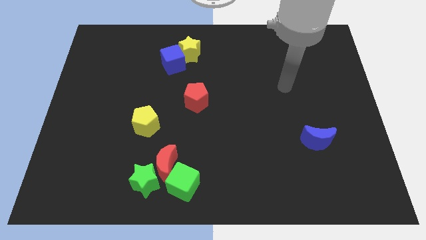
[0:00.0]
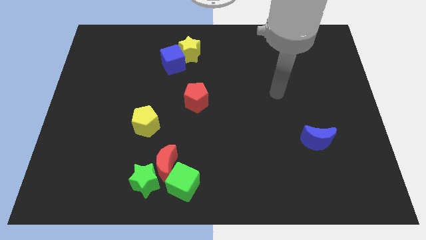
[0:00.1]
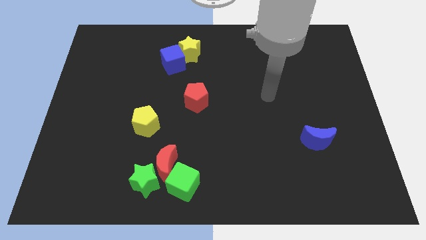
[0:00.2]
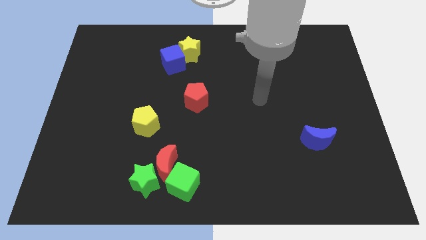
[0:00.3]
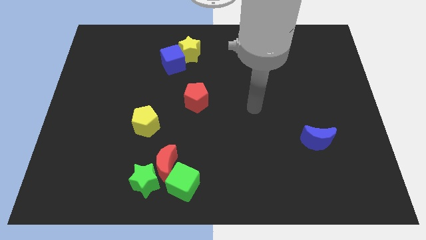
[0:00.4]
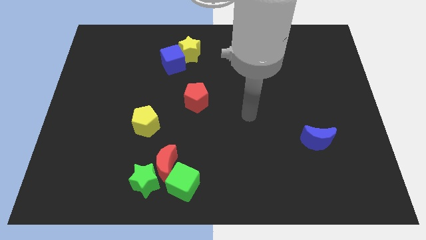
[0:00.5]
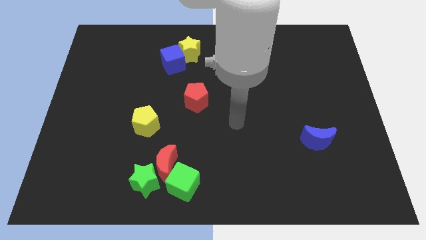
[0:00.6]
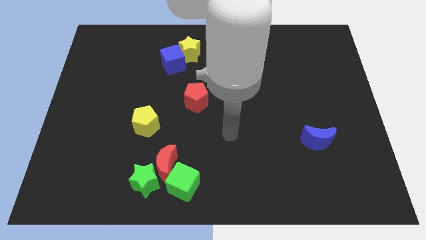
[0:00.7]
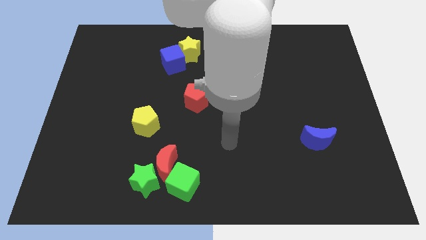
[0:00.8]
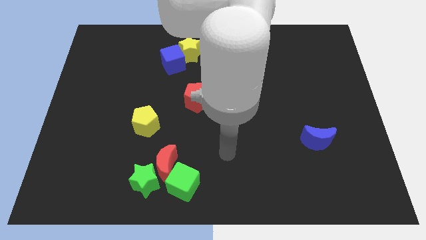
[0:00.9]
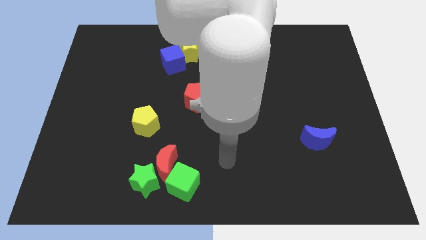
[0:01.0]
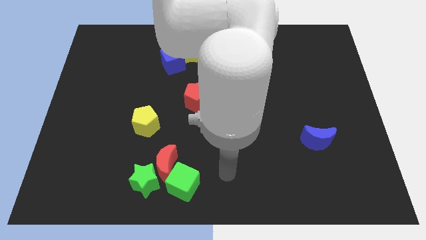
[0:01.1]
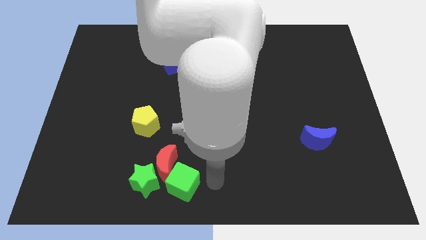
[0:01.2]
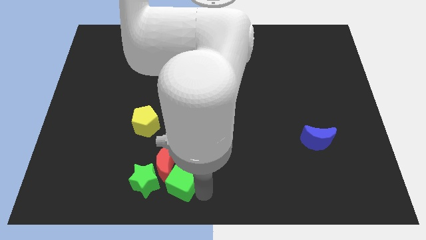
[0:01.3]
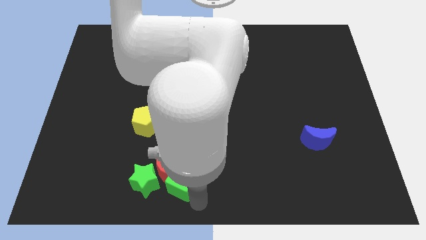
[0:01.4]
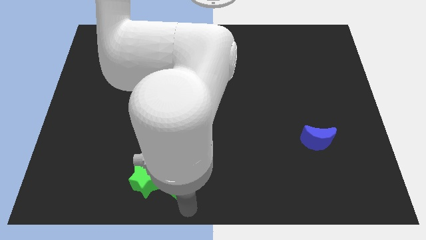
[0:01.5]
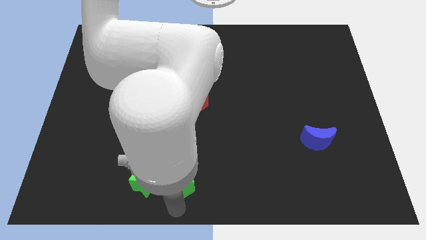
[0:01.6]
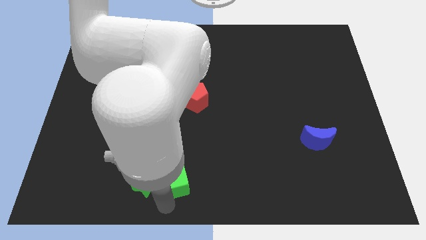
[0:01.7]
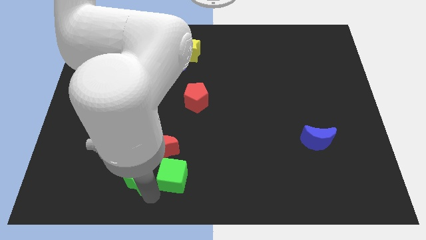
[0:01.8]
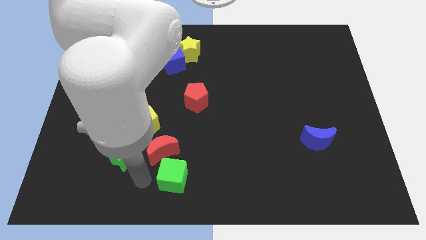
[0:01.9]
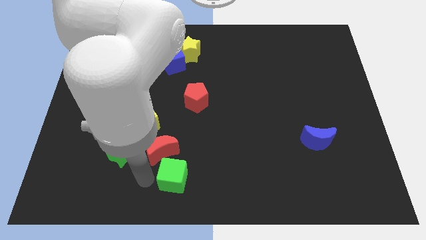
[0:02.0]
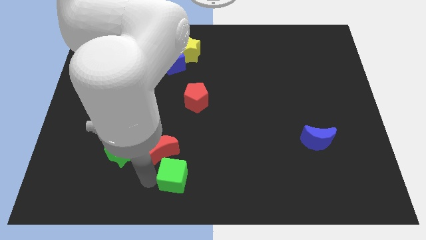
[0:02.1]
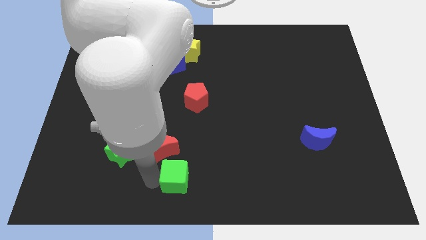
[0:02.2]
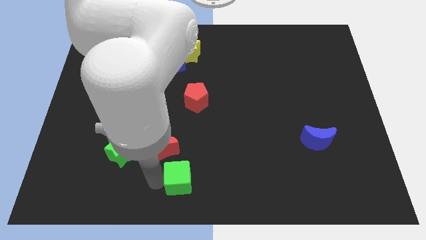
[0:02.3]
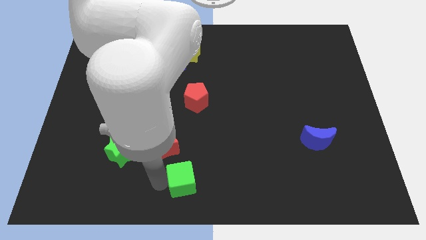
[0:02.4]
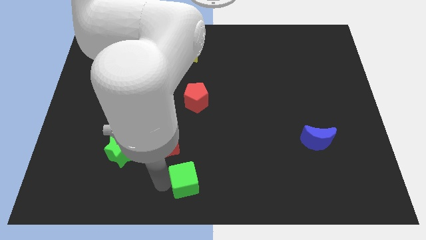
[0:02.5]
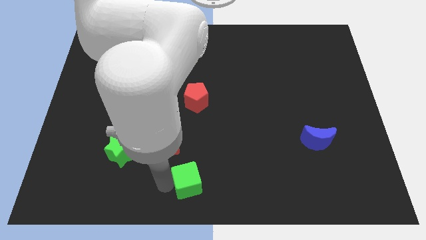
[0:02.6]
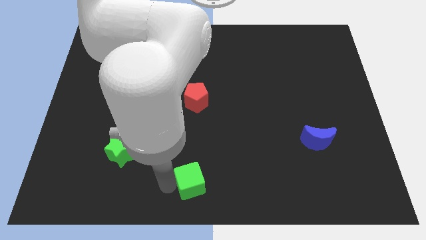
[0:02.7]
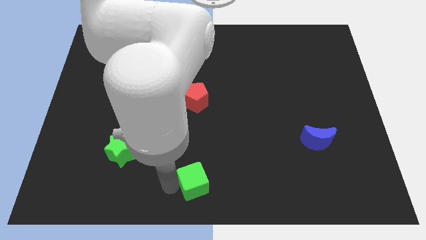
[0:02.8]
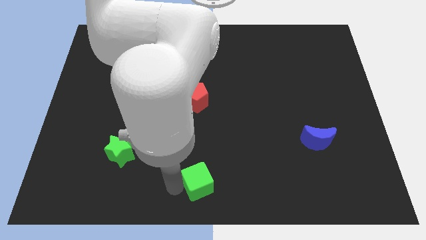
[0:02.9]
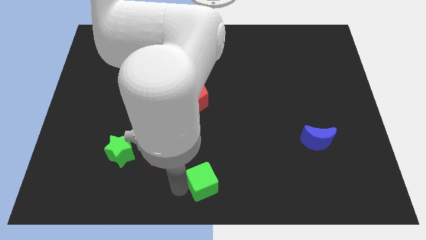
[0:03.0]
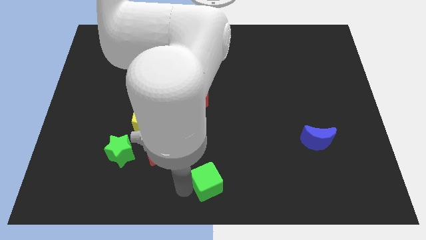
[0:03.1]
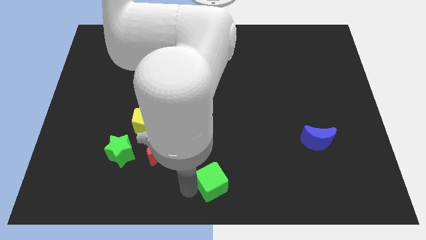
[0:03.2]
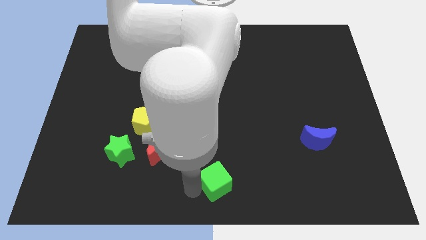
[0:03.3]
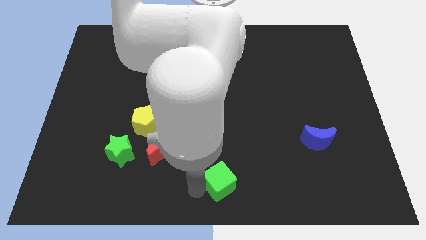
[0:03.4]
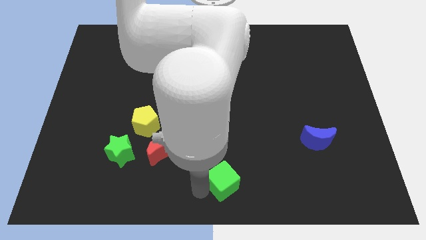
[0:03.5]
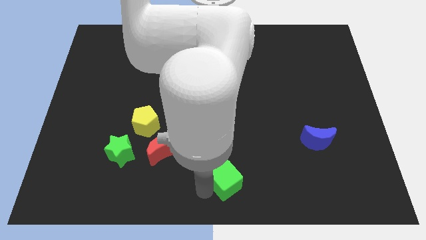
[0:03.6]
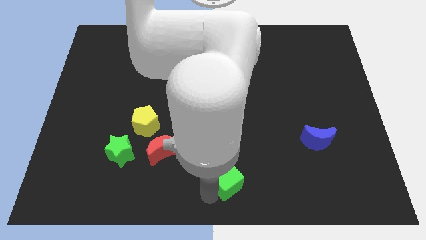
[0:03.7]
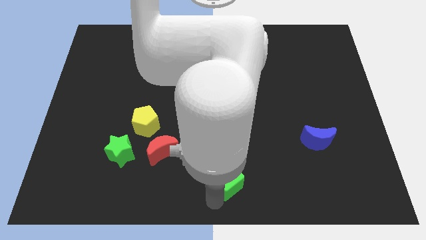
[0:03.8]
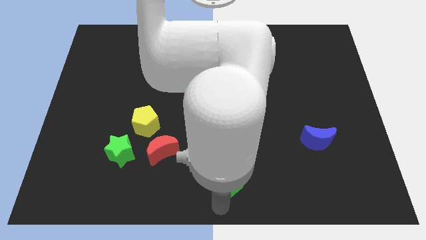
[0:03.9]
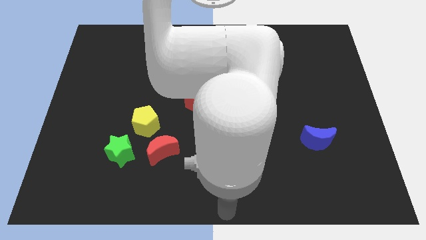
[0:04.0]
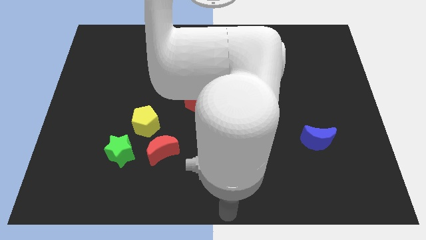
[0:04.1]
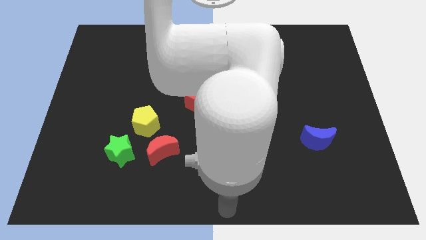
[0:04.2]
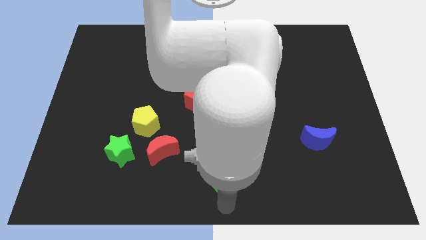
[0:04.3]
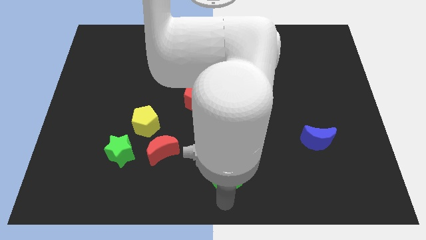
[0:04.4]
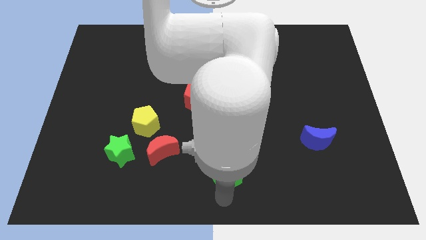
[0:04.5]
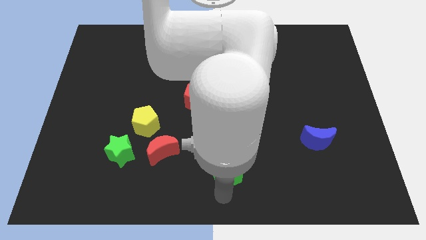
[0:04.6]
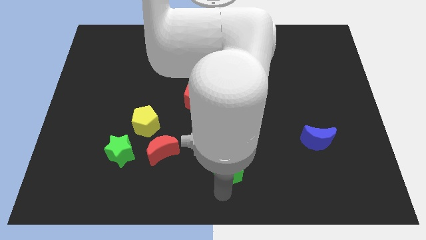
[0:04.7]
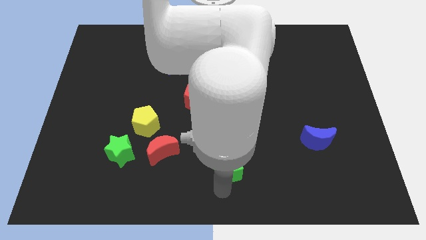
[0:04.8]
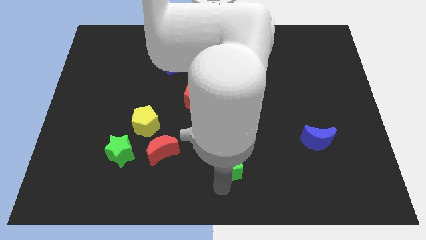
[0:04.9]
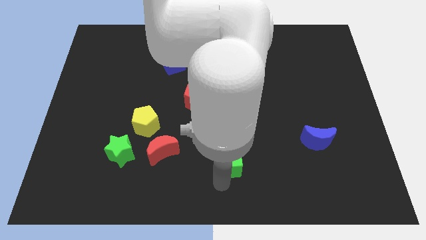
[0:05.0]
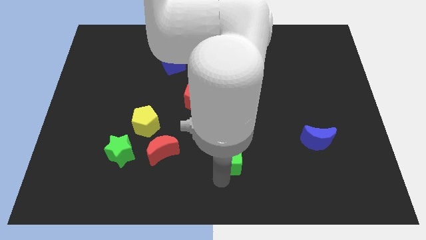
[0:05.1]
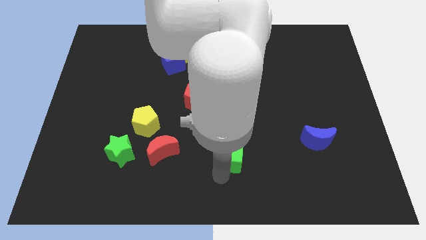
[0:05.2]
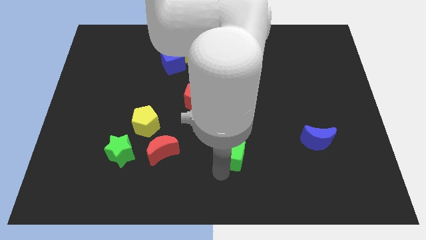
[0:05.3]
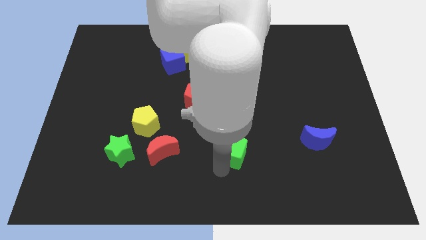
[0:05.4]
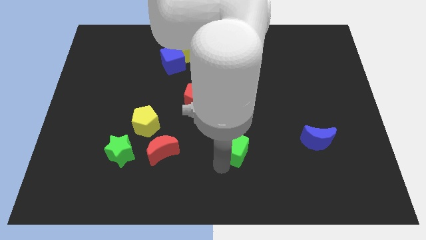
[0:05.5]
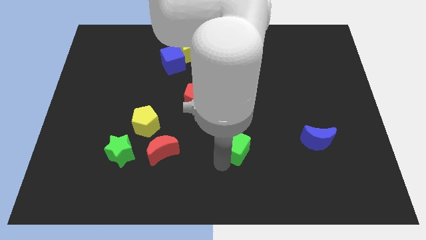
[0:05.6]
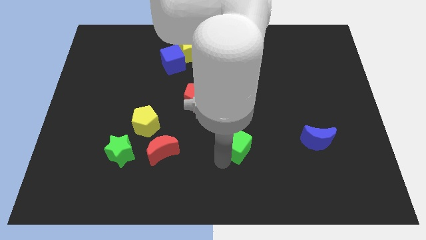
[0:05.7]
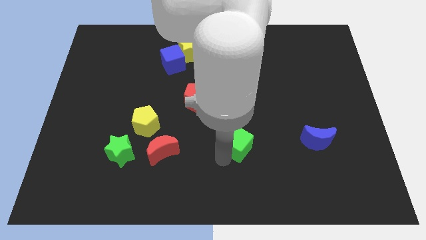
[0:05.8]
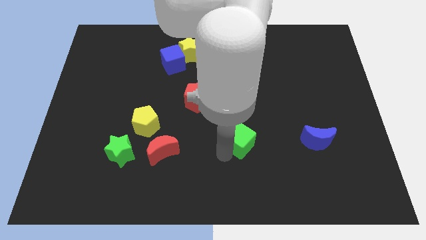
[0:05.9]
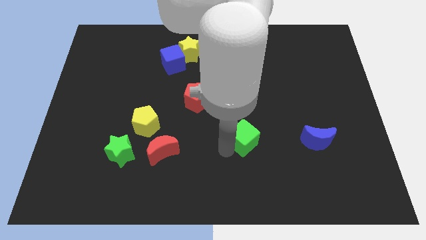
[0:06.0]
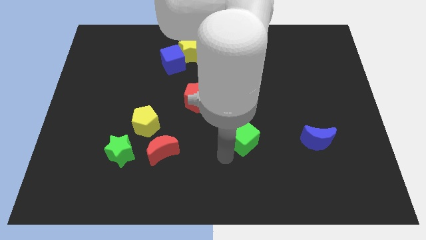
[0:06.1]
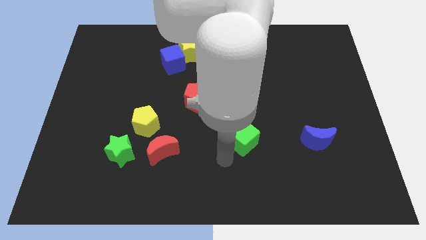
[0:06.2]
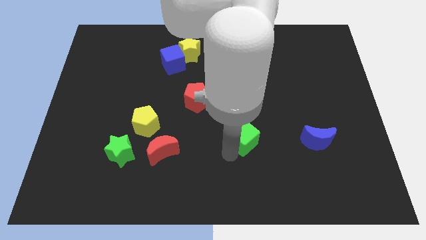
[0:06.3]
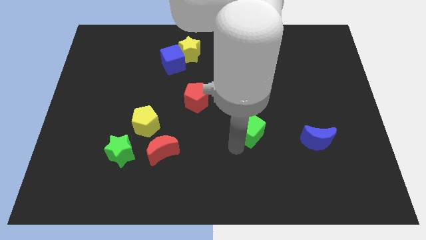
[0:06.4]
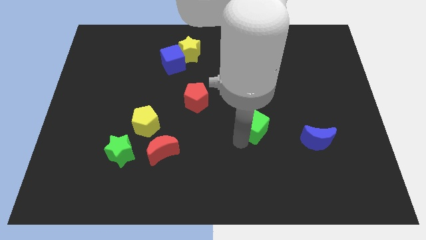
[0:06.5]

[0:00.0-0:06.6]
push the green cube upwards and to the right

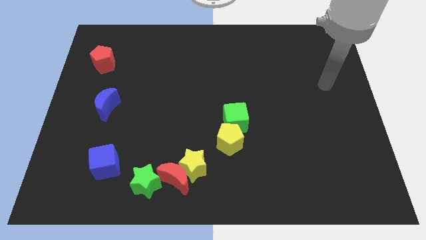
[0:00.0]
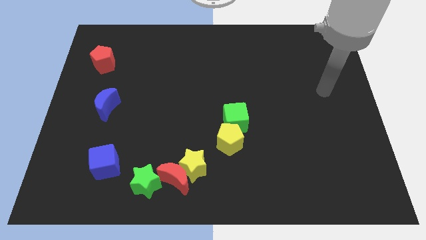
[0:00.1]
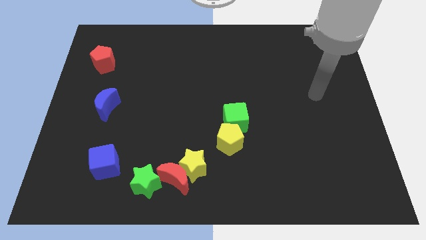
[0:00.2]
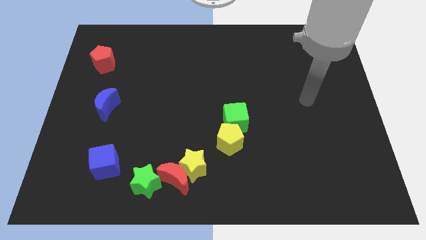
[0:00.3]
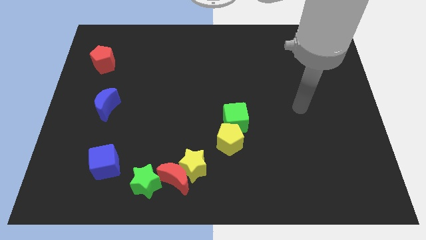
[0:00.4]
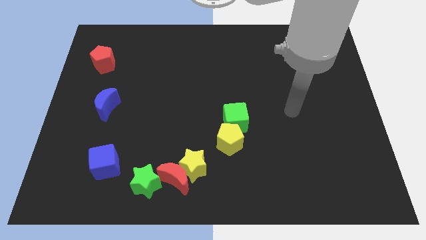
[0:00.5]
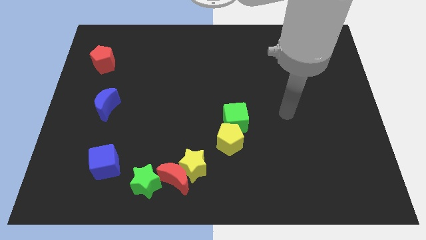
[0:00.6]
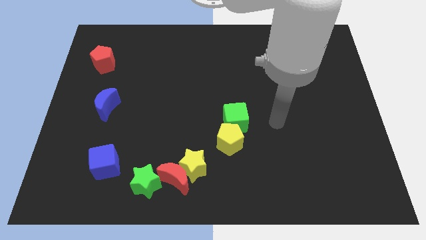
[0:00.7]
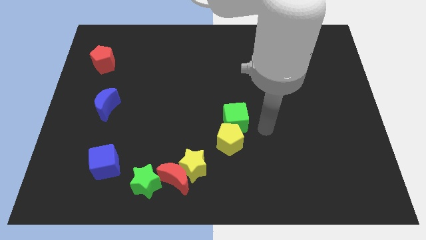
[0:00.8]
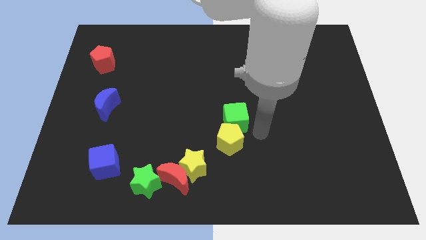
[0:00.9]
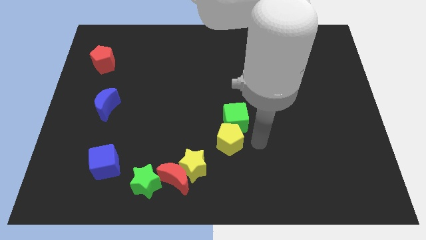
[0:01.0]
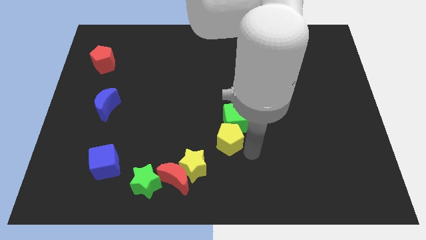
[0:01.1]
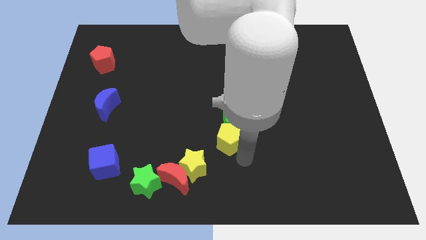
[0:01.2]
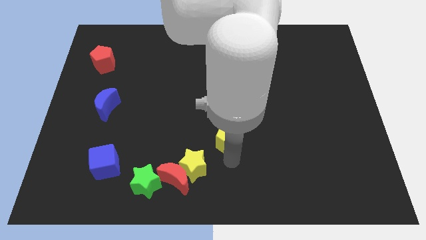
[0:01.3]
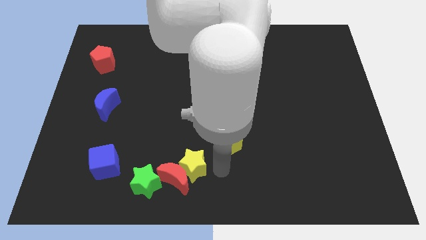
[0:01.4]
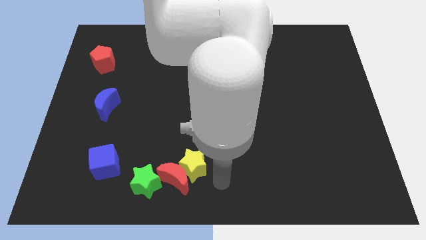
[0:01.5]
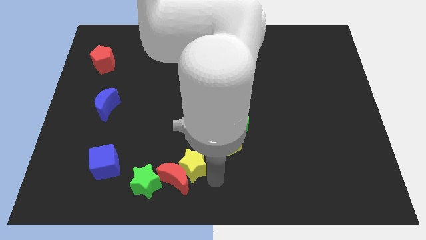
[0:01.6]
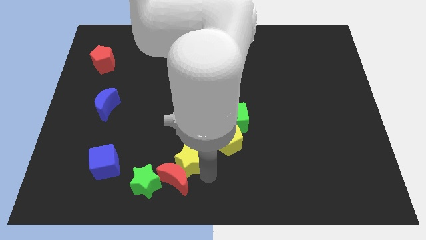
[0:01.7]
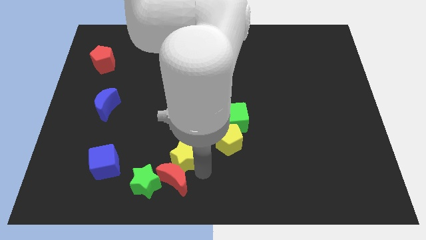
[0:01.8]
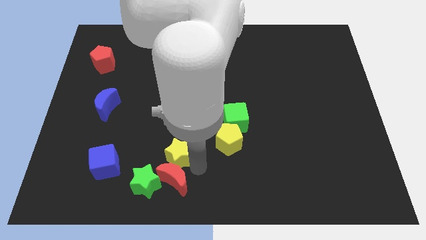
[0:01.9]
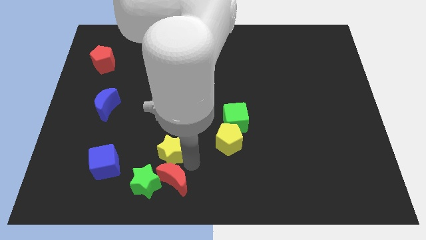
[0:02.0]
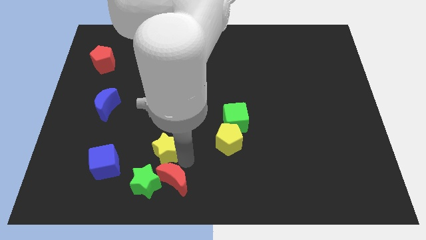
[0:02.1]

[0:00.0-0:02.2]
slide the yellow star up and then to the left a bit
